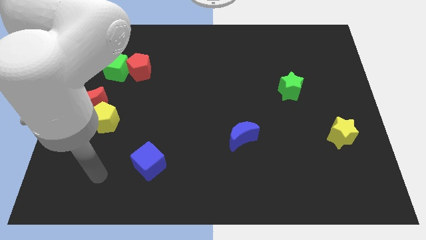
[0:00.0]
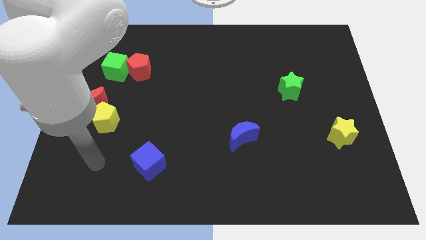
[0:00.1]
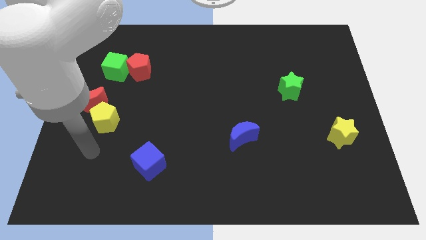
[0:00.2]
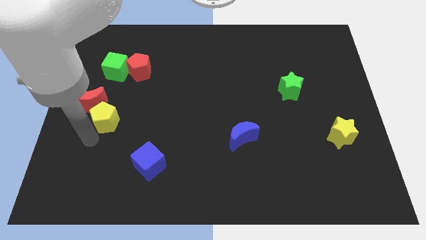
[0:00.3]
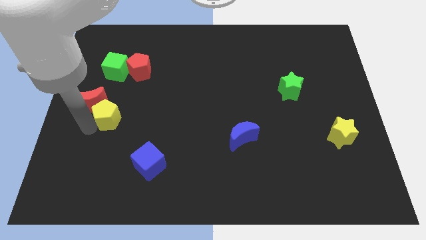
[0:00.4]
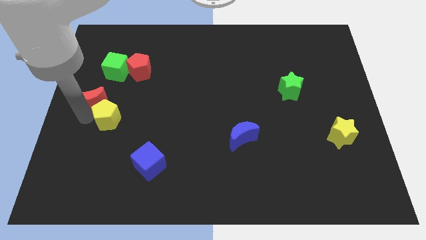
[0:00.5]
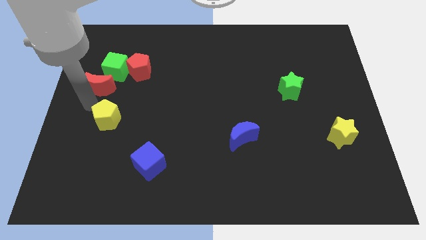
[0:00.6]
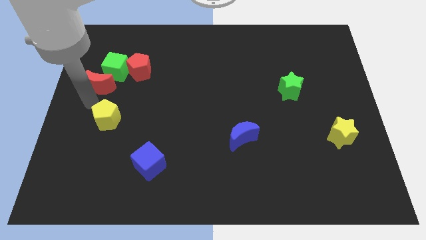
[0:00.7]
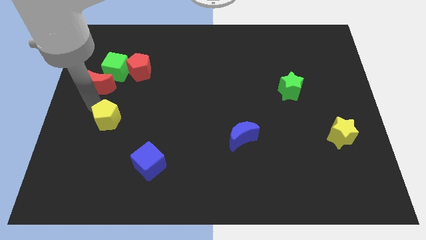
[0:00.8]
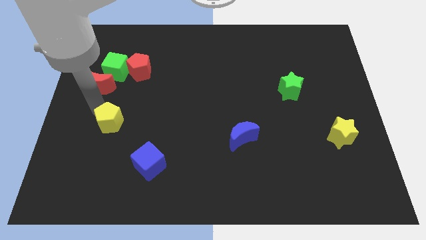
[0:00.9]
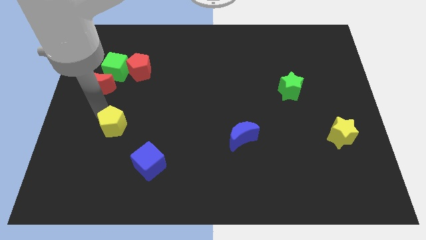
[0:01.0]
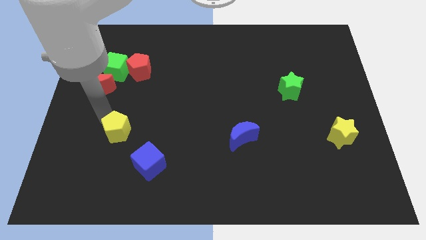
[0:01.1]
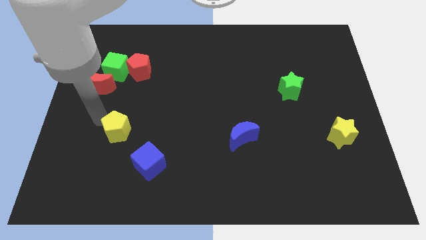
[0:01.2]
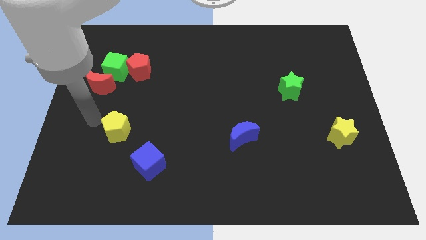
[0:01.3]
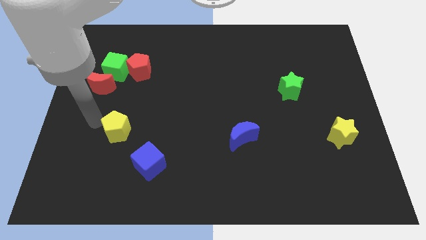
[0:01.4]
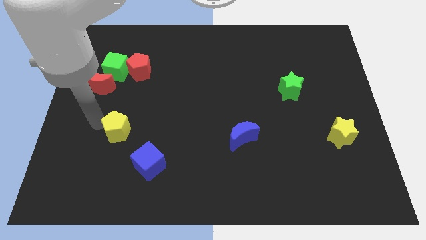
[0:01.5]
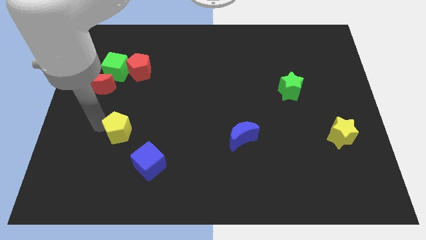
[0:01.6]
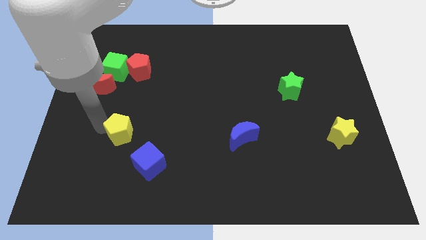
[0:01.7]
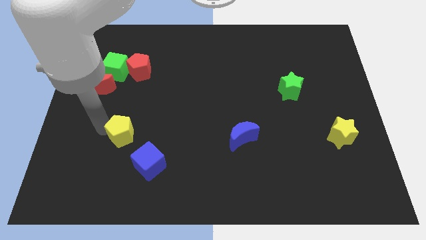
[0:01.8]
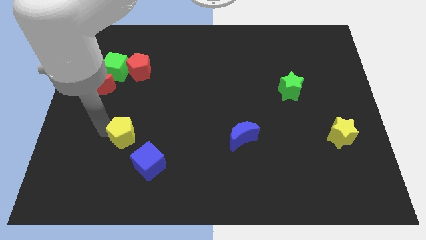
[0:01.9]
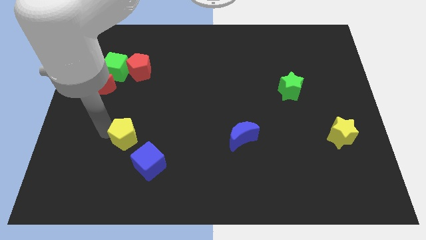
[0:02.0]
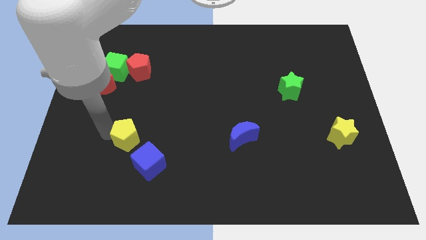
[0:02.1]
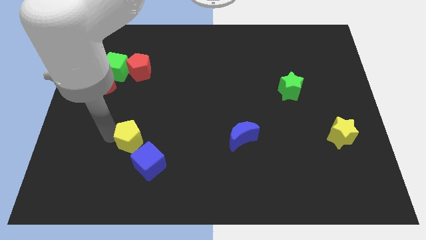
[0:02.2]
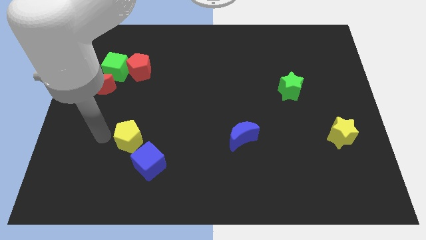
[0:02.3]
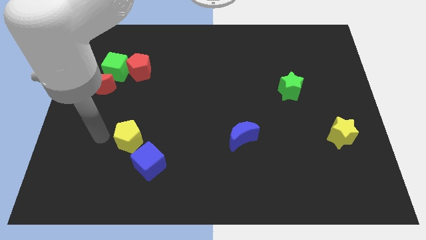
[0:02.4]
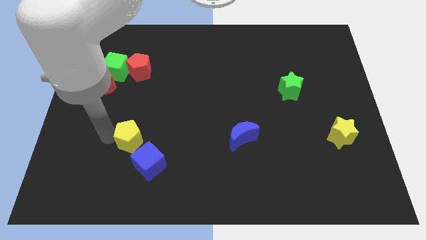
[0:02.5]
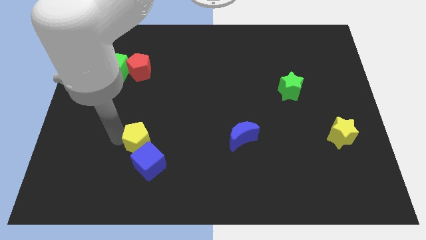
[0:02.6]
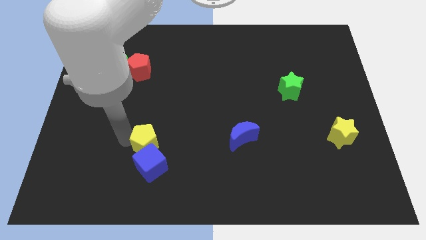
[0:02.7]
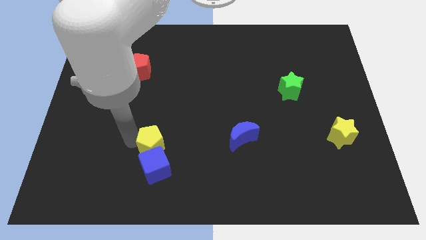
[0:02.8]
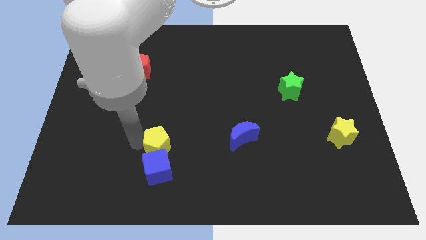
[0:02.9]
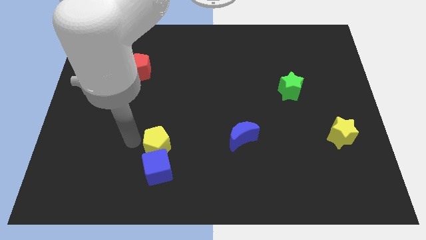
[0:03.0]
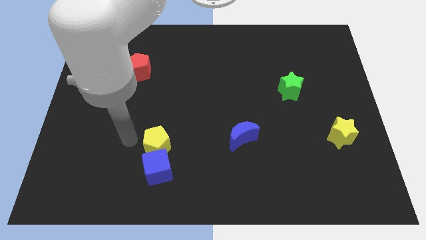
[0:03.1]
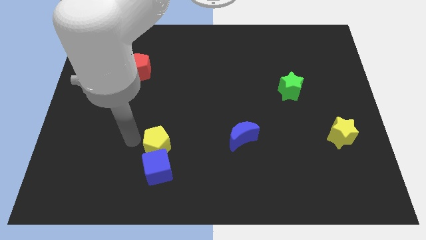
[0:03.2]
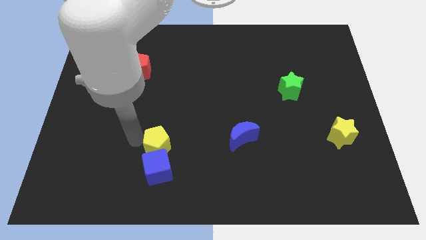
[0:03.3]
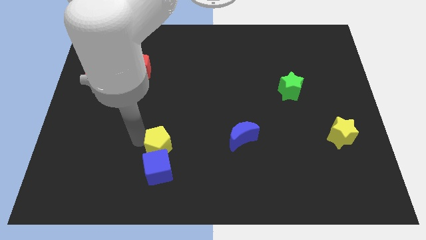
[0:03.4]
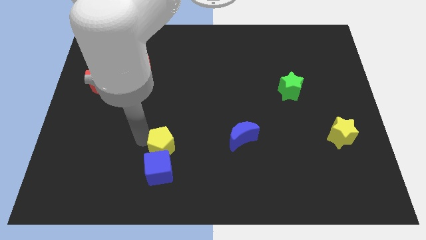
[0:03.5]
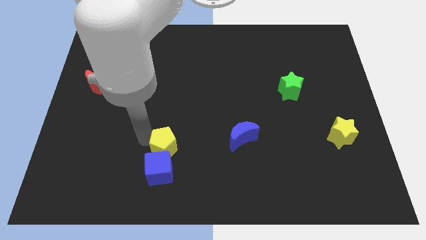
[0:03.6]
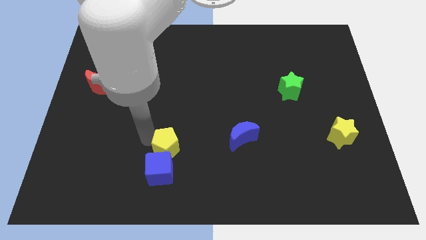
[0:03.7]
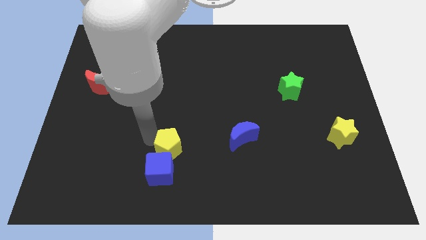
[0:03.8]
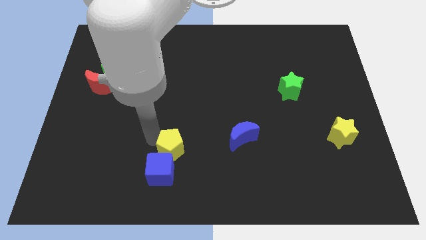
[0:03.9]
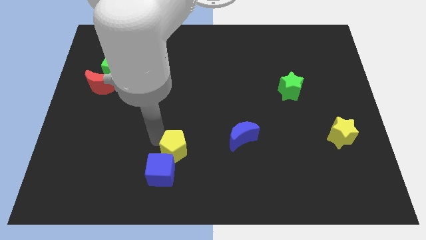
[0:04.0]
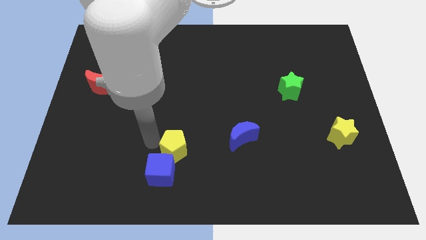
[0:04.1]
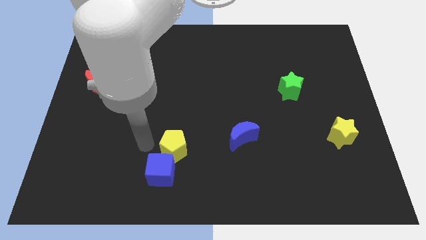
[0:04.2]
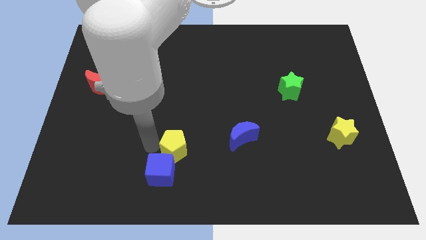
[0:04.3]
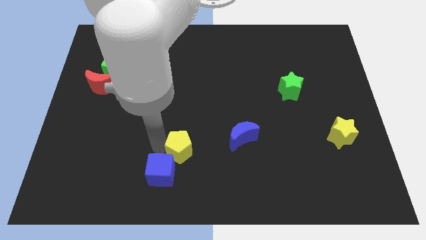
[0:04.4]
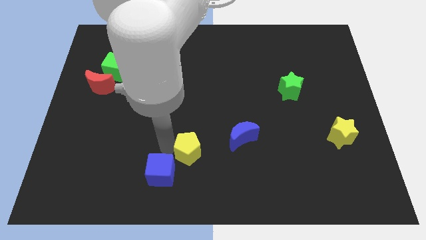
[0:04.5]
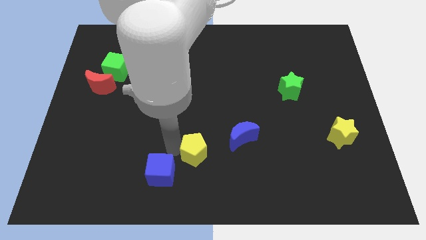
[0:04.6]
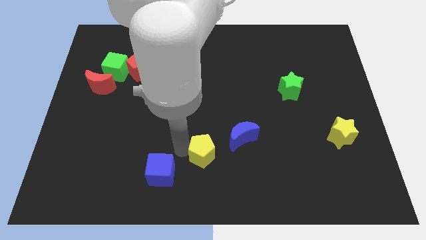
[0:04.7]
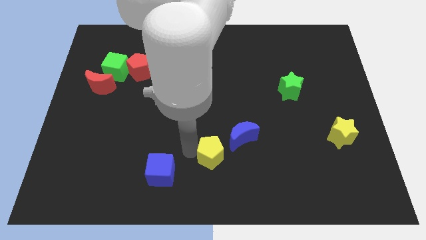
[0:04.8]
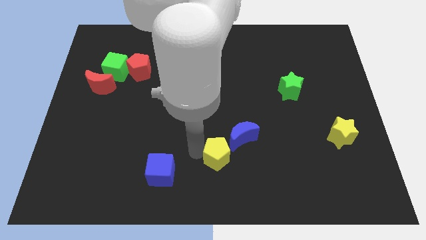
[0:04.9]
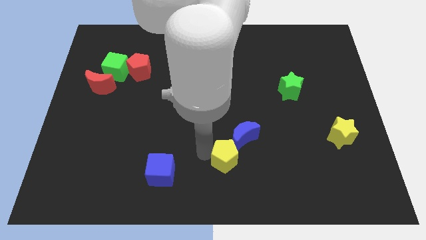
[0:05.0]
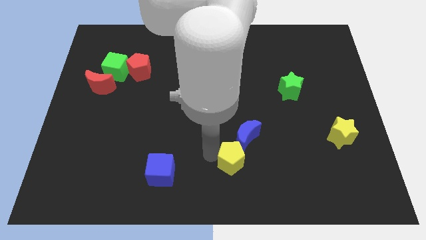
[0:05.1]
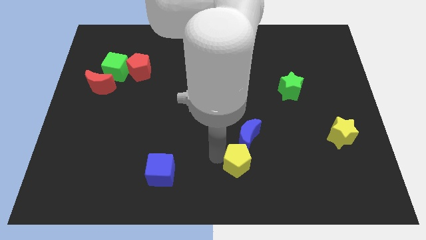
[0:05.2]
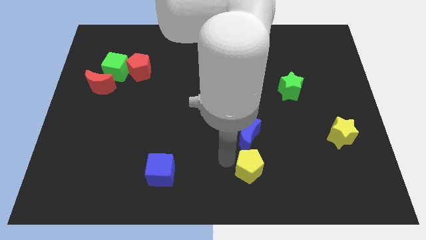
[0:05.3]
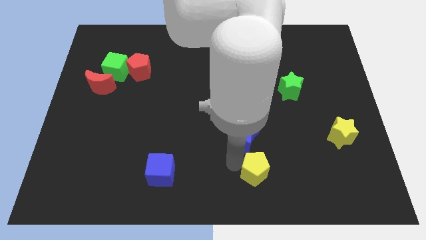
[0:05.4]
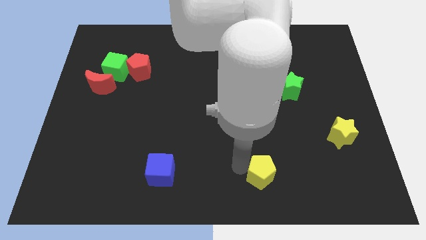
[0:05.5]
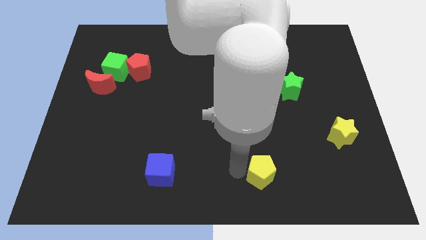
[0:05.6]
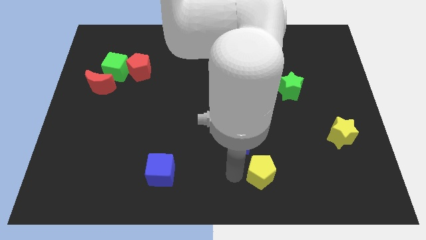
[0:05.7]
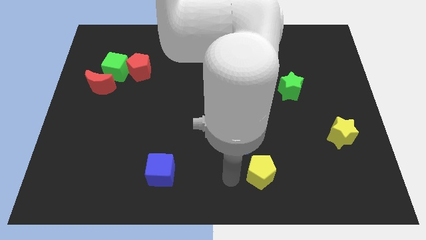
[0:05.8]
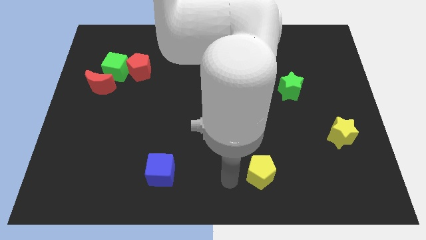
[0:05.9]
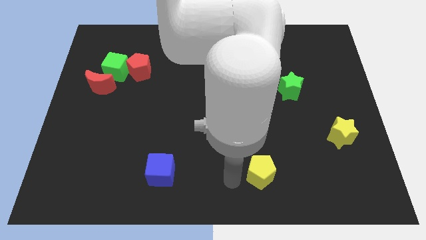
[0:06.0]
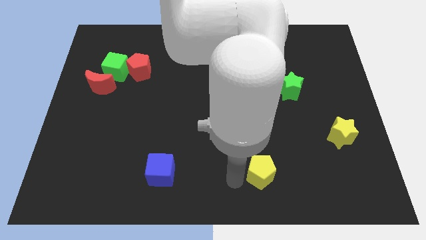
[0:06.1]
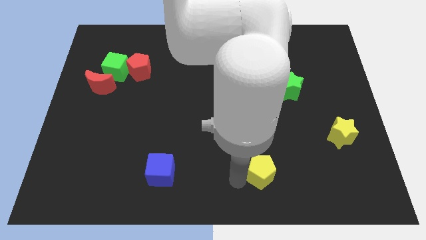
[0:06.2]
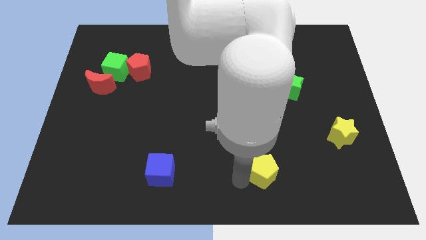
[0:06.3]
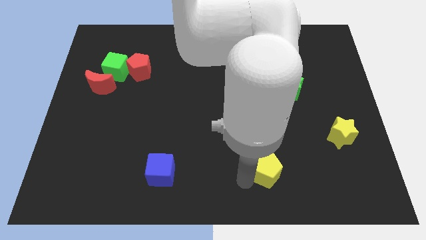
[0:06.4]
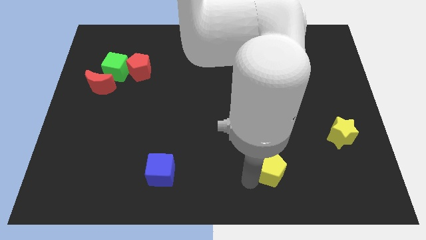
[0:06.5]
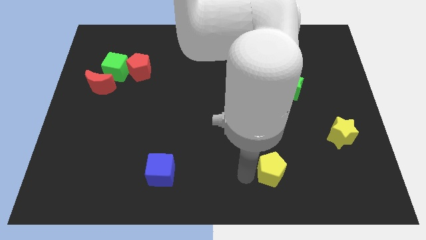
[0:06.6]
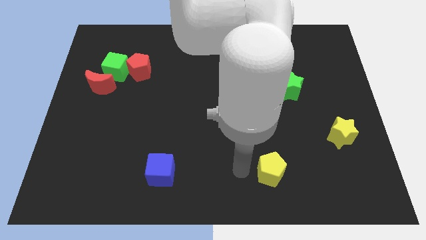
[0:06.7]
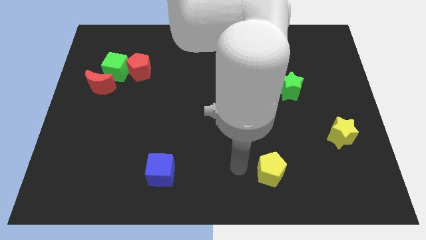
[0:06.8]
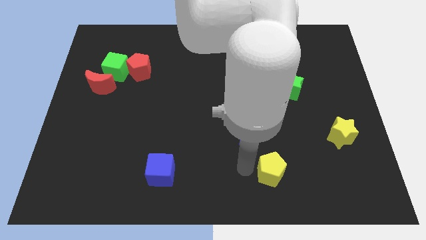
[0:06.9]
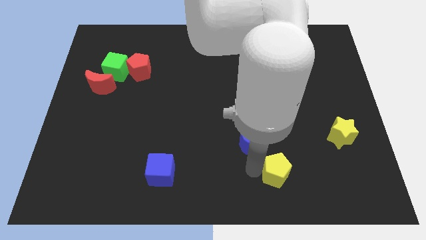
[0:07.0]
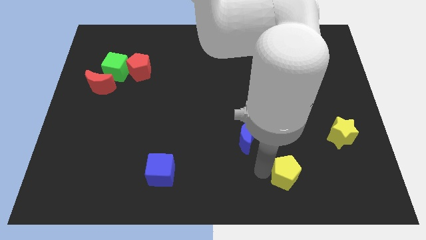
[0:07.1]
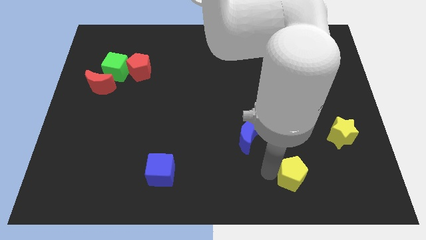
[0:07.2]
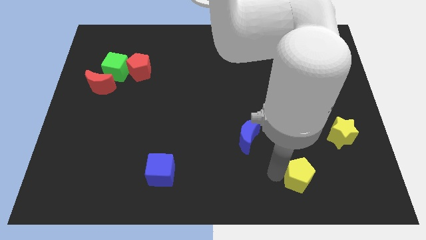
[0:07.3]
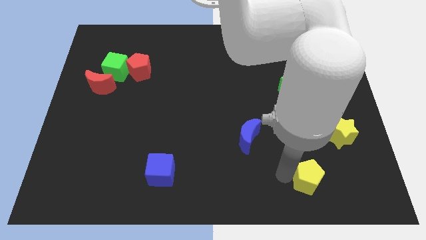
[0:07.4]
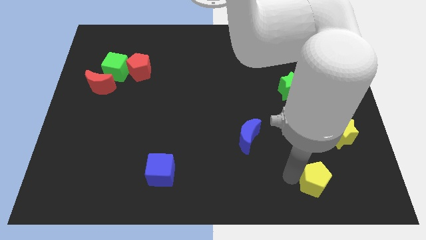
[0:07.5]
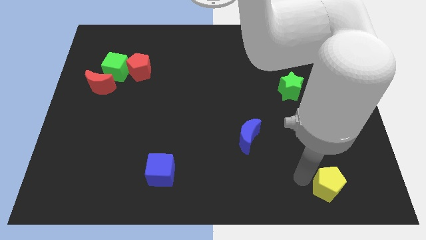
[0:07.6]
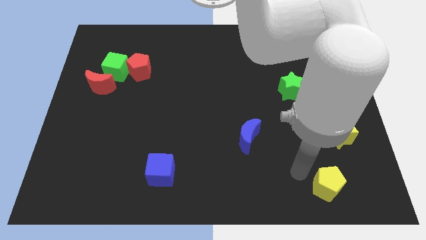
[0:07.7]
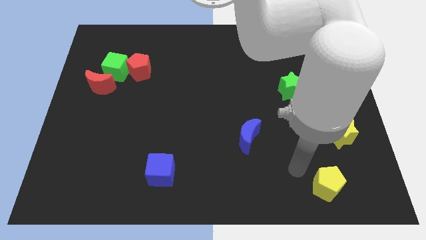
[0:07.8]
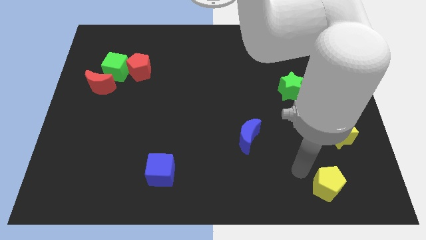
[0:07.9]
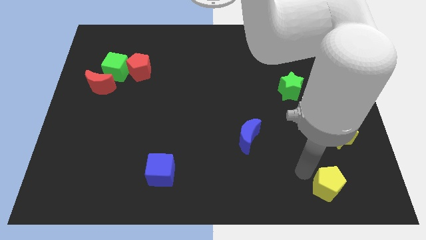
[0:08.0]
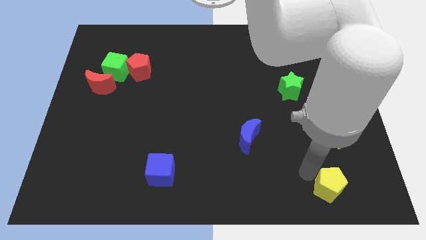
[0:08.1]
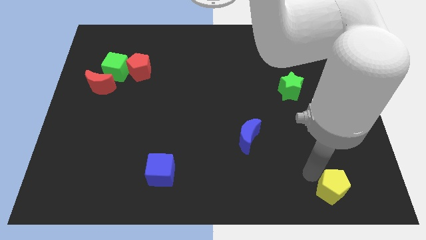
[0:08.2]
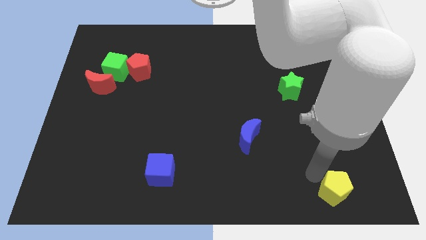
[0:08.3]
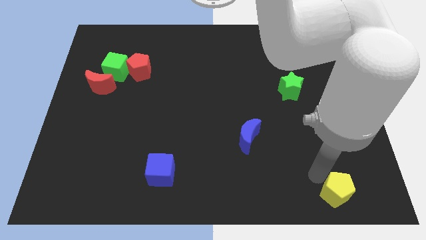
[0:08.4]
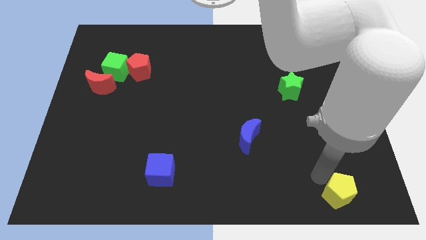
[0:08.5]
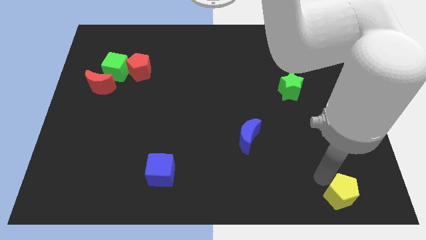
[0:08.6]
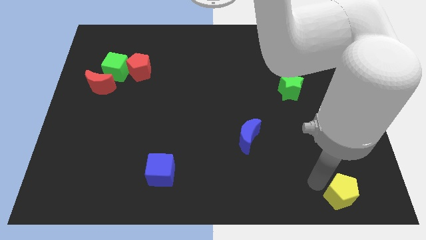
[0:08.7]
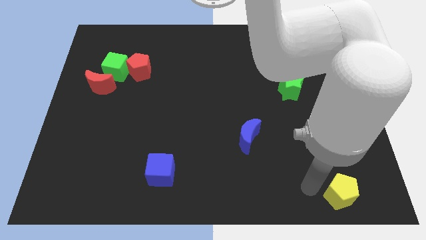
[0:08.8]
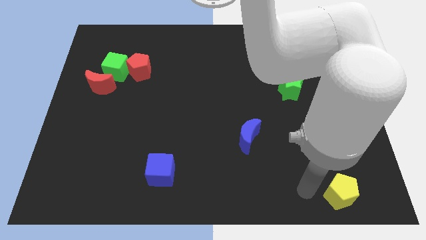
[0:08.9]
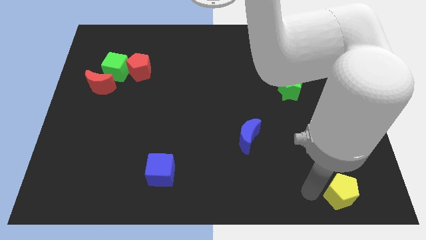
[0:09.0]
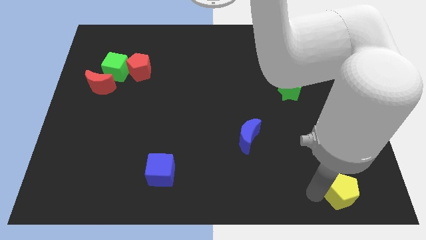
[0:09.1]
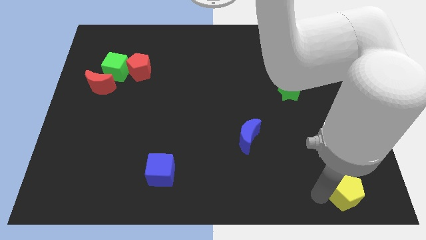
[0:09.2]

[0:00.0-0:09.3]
slide the yellow pentagon to the lower right corner
